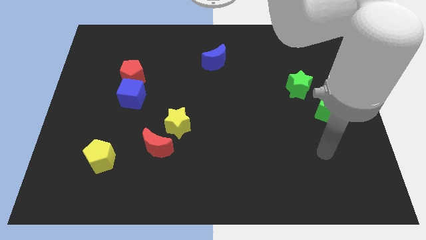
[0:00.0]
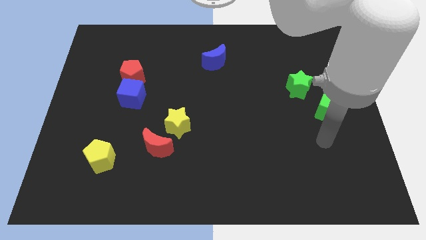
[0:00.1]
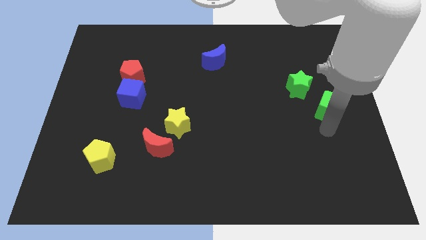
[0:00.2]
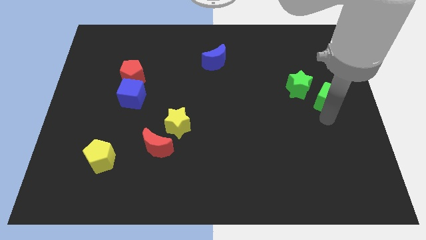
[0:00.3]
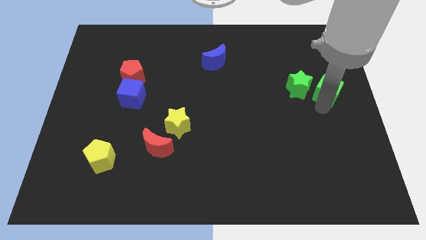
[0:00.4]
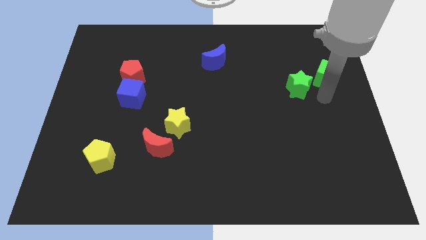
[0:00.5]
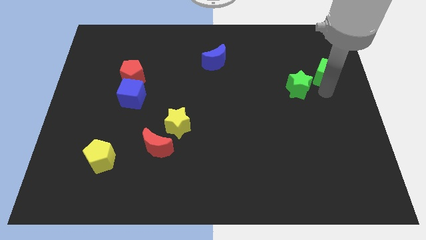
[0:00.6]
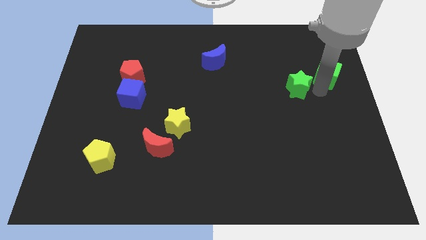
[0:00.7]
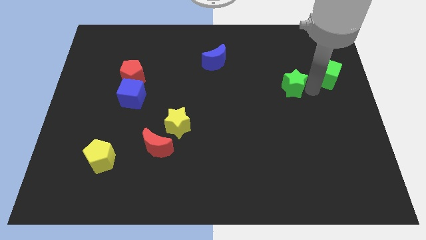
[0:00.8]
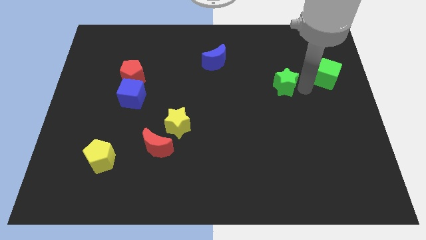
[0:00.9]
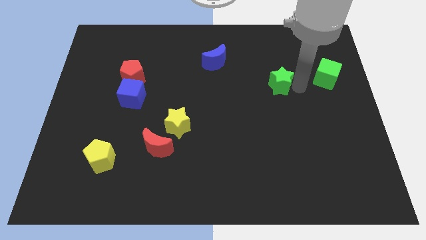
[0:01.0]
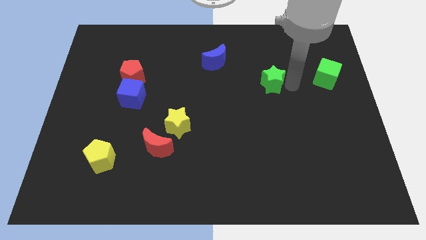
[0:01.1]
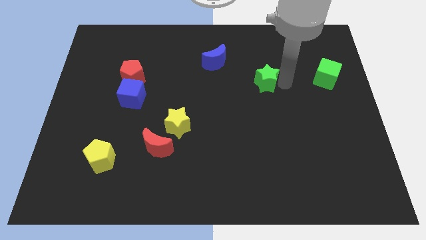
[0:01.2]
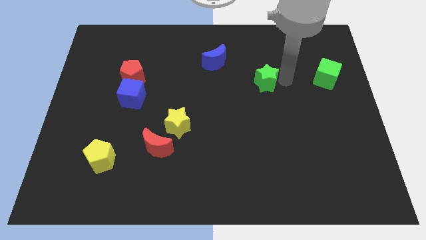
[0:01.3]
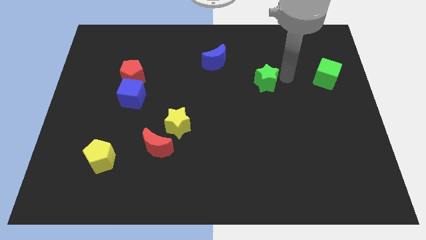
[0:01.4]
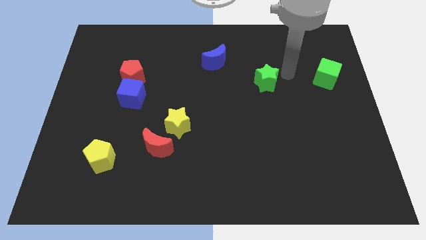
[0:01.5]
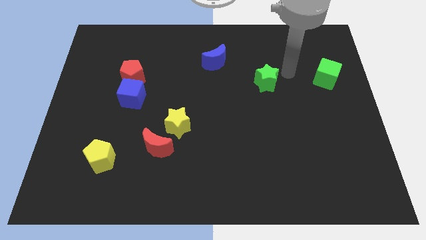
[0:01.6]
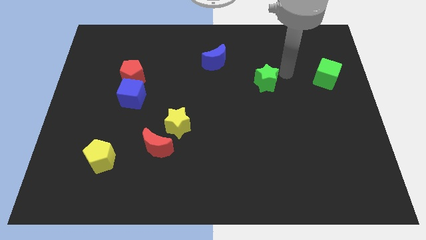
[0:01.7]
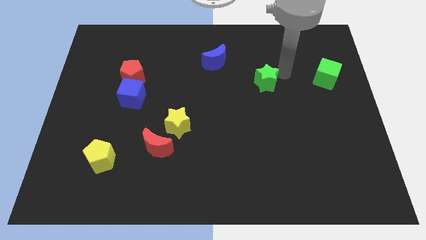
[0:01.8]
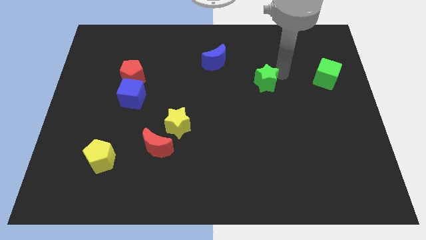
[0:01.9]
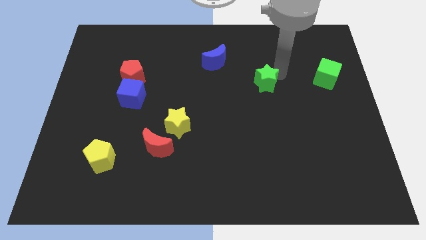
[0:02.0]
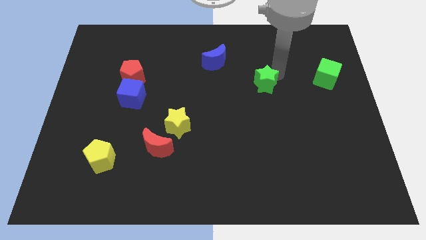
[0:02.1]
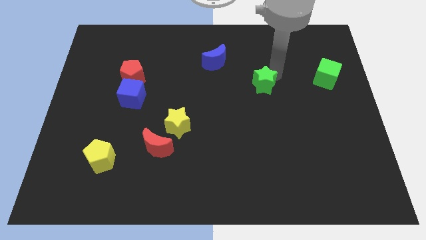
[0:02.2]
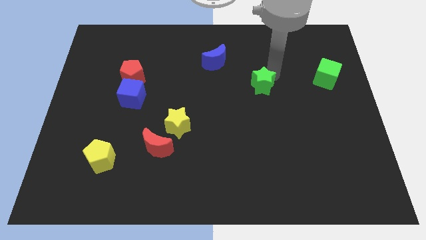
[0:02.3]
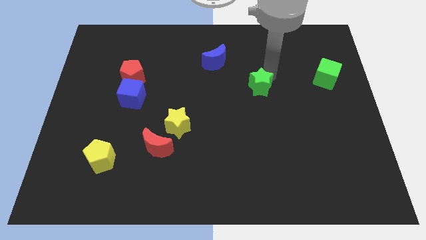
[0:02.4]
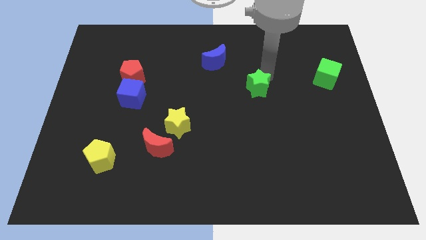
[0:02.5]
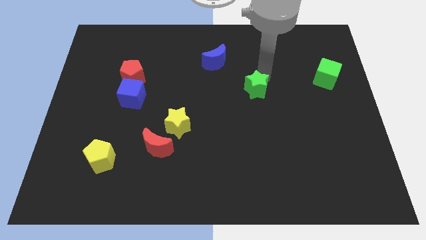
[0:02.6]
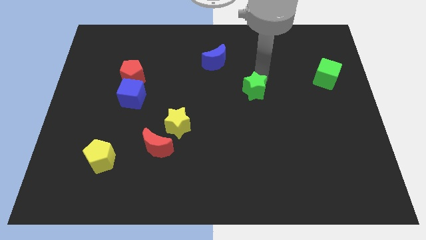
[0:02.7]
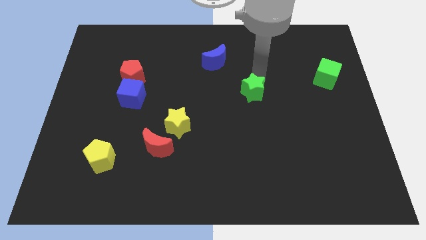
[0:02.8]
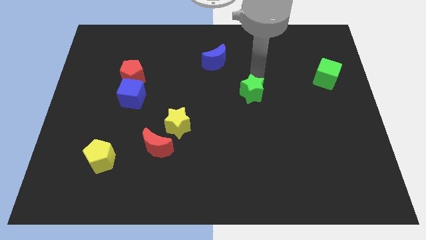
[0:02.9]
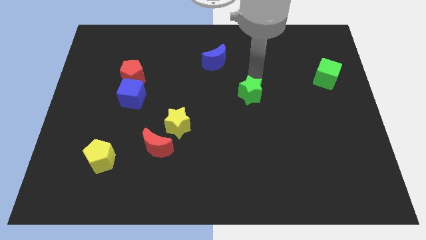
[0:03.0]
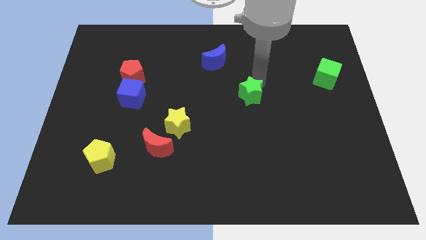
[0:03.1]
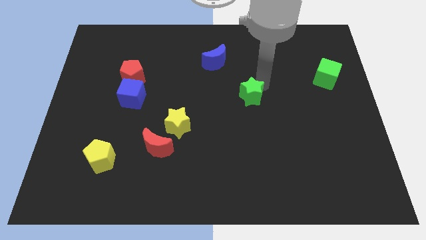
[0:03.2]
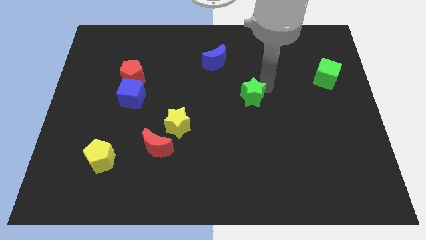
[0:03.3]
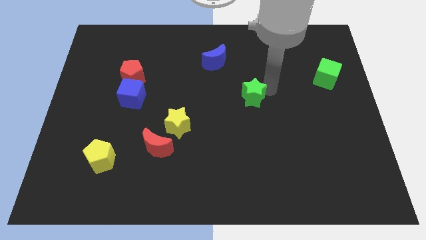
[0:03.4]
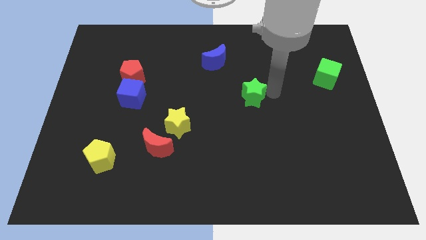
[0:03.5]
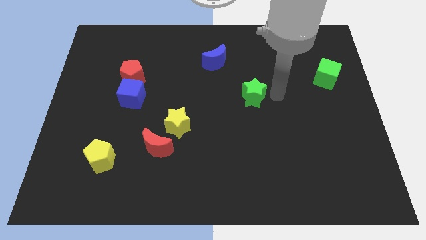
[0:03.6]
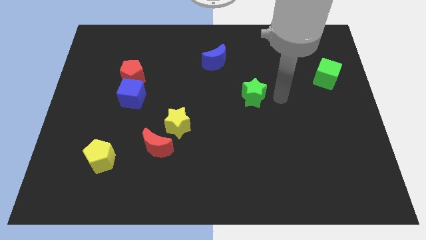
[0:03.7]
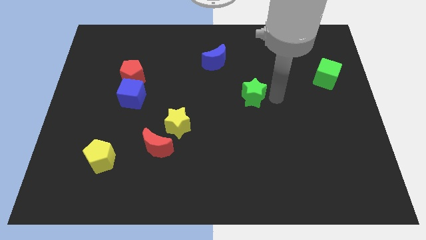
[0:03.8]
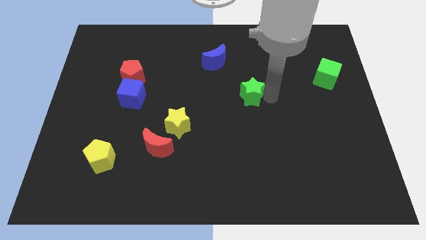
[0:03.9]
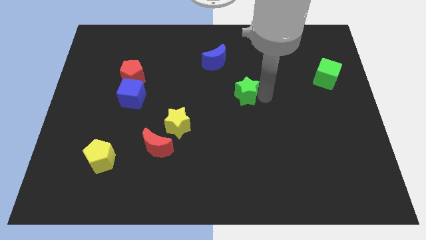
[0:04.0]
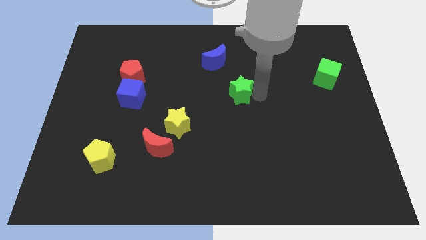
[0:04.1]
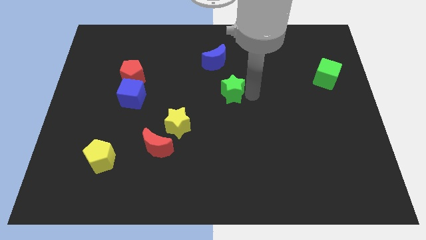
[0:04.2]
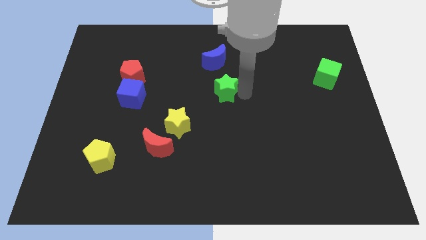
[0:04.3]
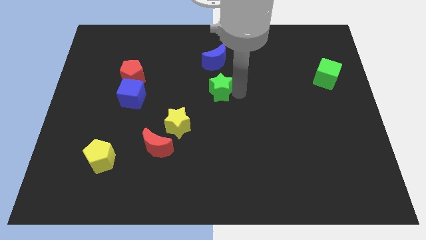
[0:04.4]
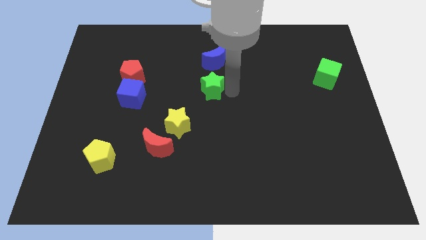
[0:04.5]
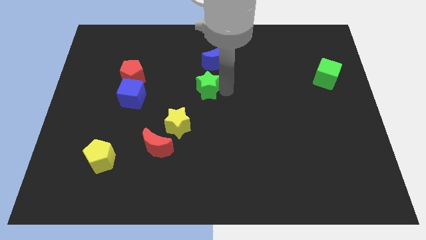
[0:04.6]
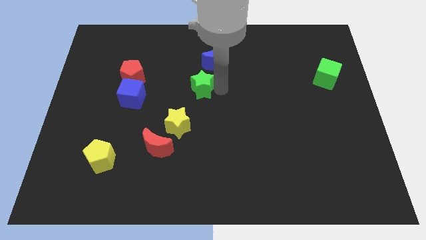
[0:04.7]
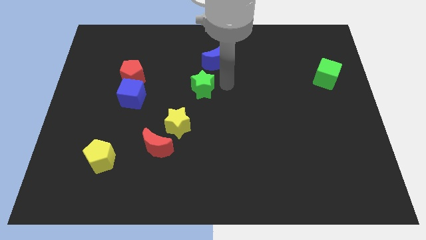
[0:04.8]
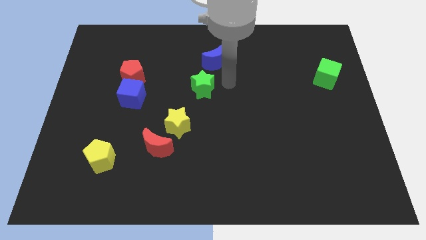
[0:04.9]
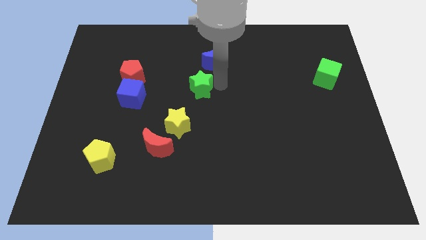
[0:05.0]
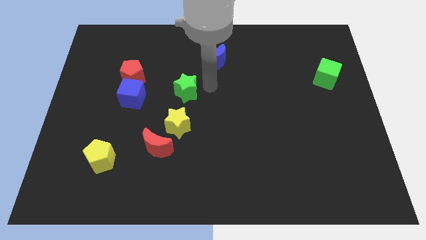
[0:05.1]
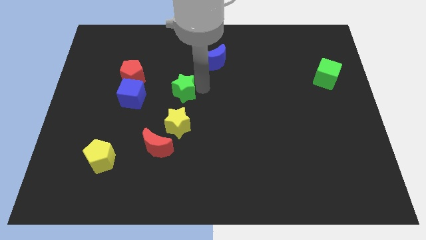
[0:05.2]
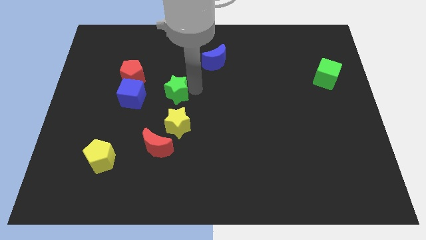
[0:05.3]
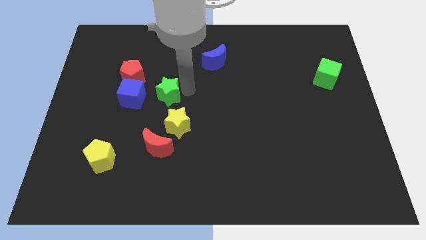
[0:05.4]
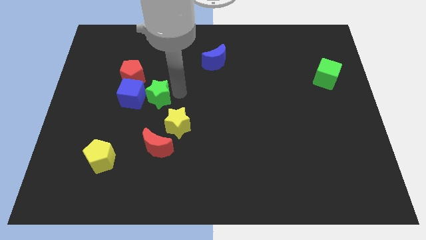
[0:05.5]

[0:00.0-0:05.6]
move the green star towards the blue cube

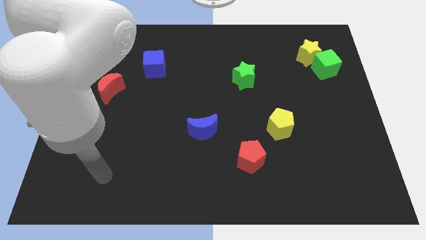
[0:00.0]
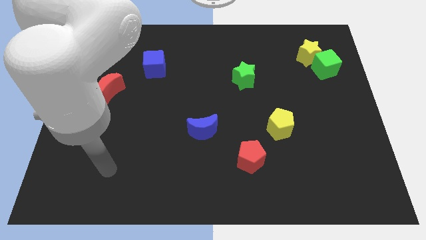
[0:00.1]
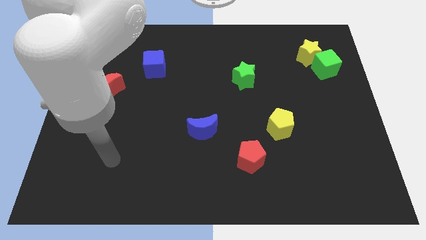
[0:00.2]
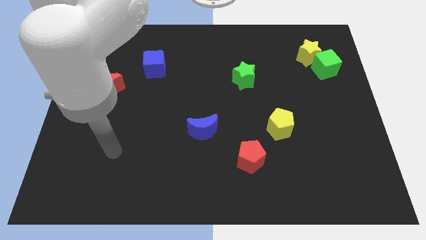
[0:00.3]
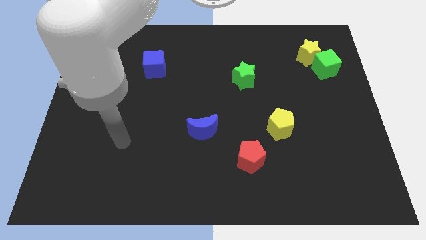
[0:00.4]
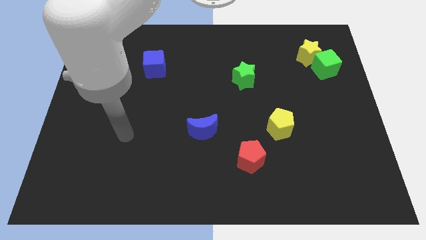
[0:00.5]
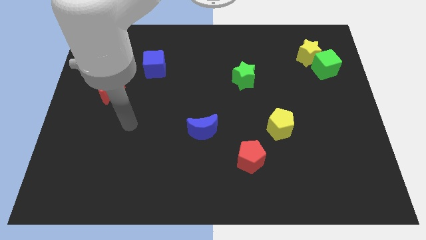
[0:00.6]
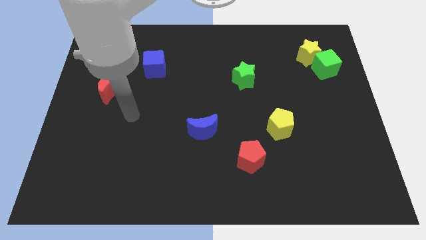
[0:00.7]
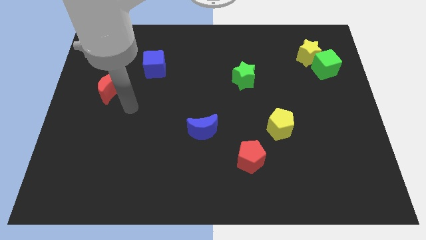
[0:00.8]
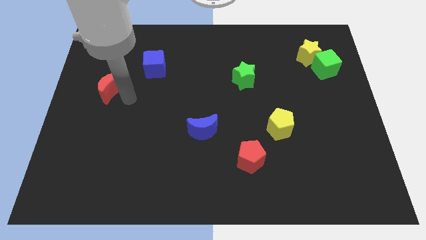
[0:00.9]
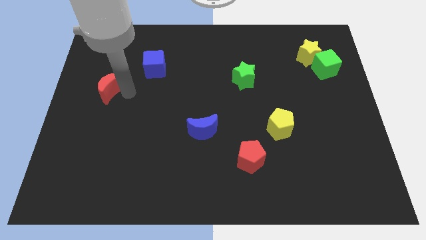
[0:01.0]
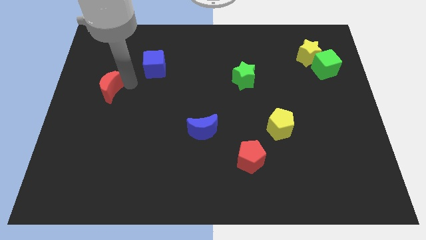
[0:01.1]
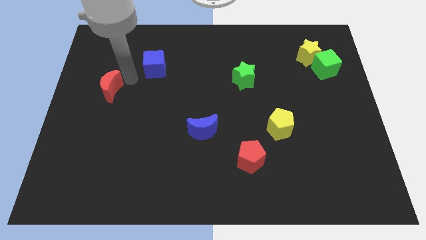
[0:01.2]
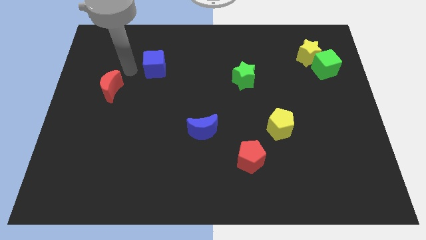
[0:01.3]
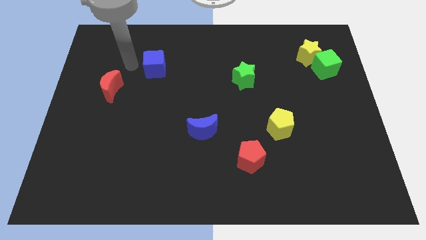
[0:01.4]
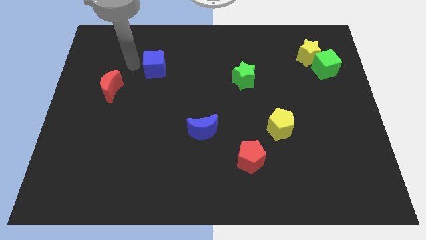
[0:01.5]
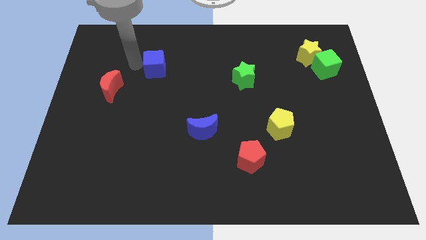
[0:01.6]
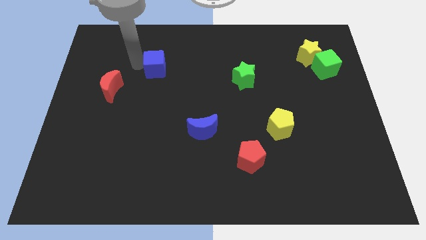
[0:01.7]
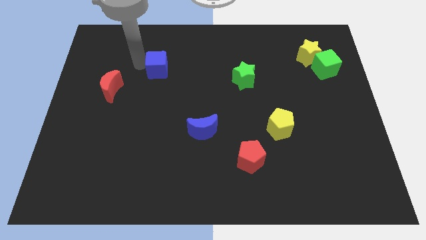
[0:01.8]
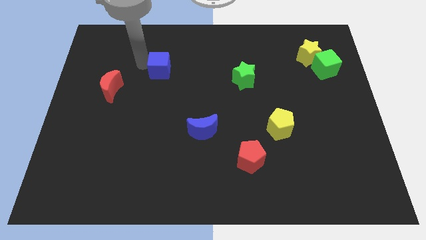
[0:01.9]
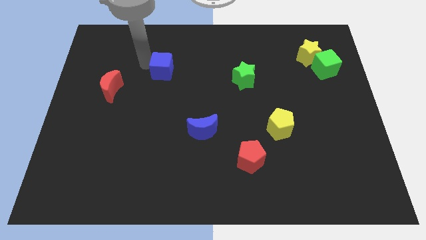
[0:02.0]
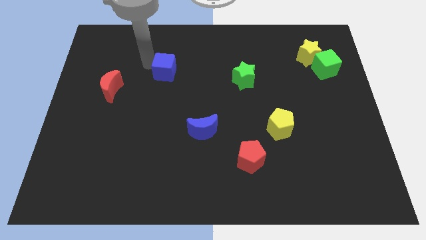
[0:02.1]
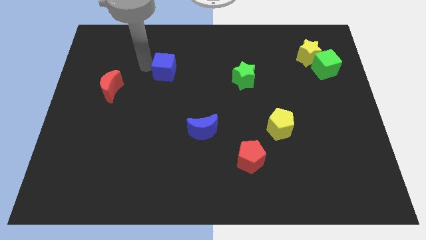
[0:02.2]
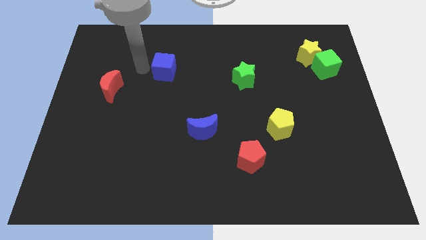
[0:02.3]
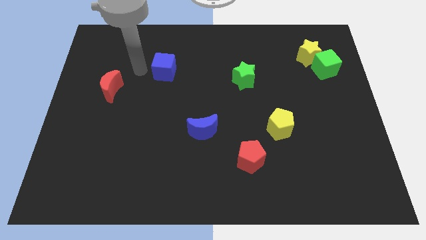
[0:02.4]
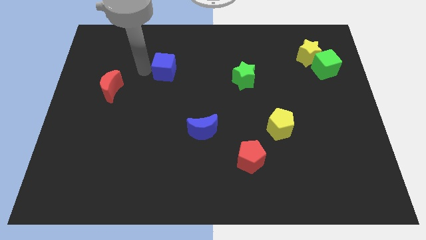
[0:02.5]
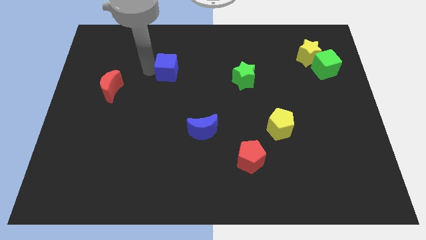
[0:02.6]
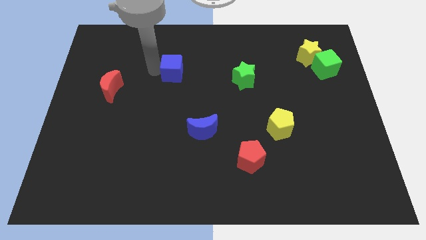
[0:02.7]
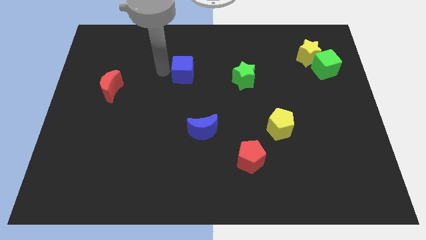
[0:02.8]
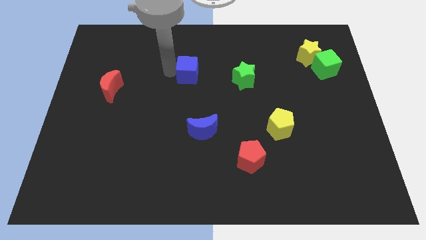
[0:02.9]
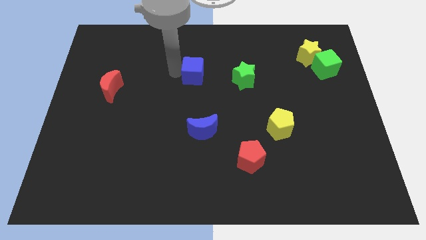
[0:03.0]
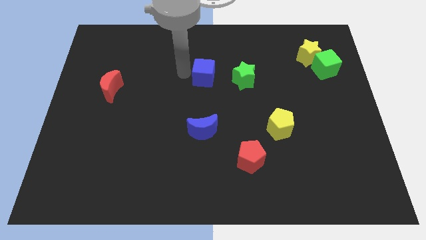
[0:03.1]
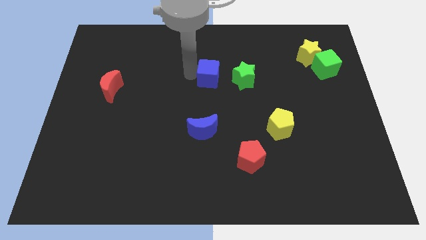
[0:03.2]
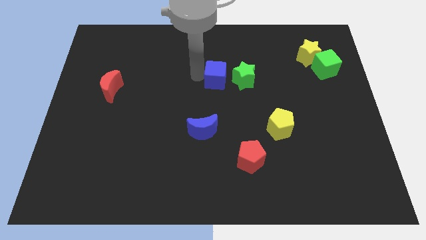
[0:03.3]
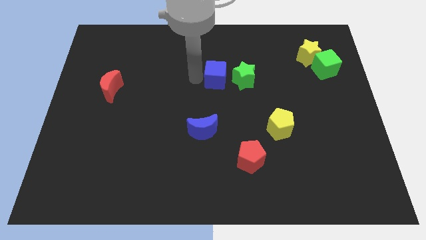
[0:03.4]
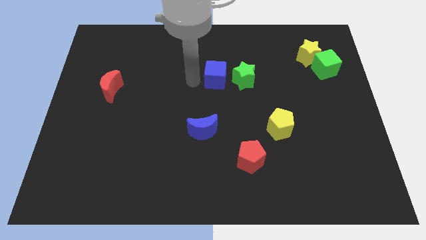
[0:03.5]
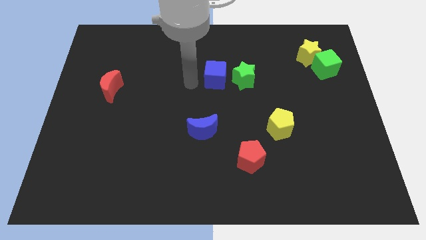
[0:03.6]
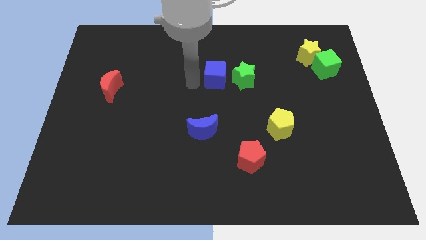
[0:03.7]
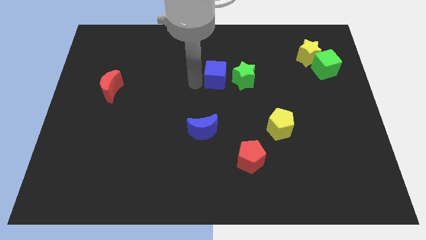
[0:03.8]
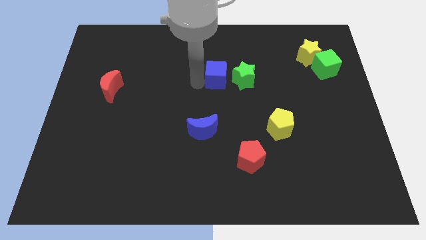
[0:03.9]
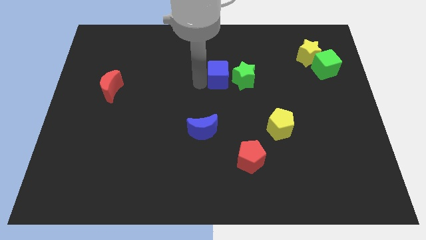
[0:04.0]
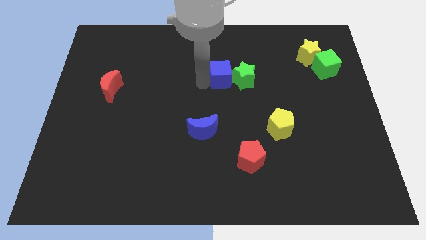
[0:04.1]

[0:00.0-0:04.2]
move the blue cube to the green star
